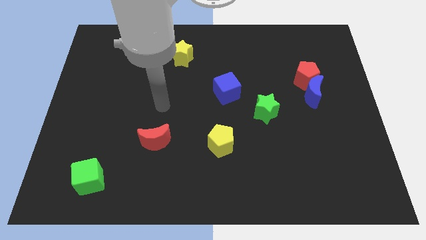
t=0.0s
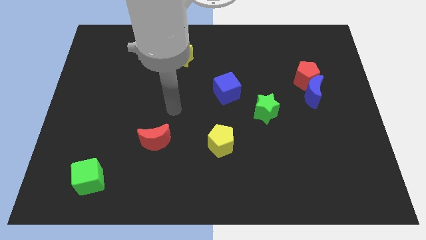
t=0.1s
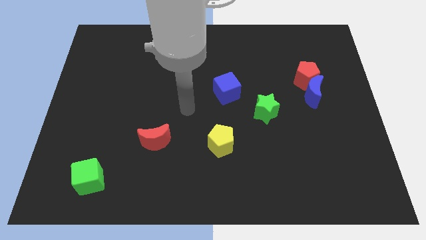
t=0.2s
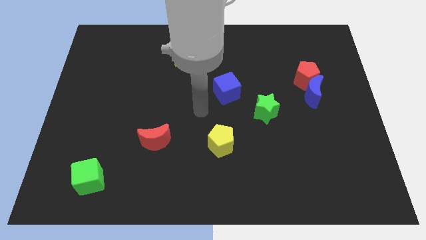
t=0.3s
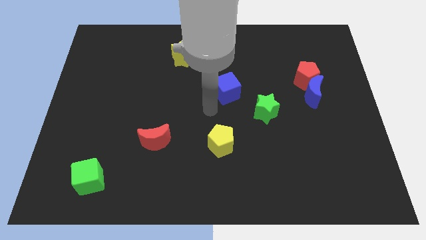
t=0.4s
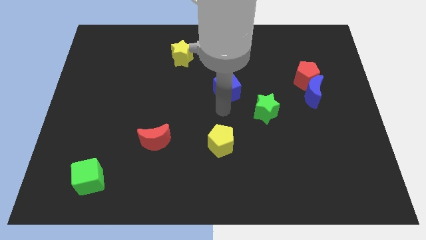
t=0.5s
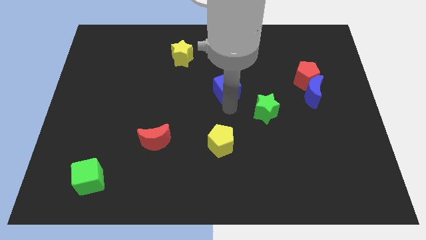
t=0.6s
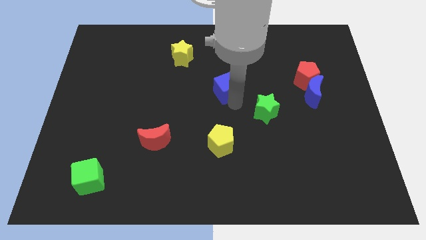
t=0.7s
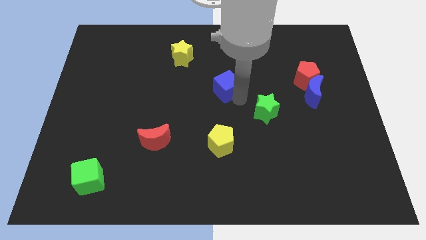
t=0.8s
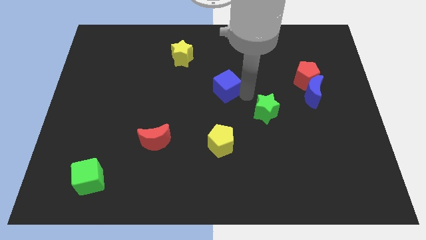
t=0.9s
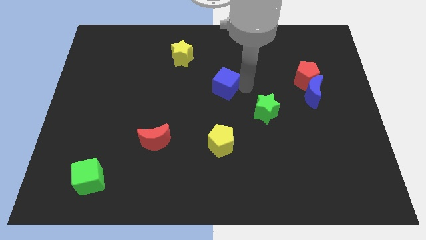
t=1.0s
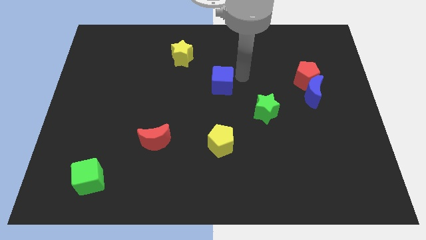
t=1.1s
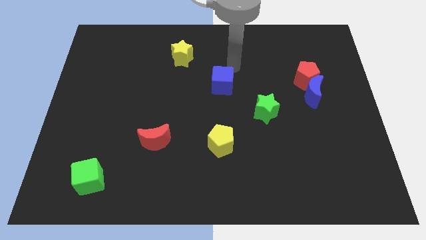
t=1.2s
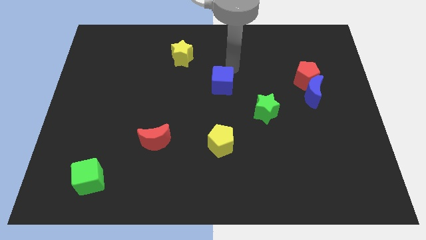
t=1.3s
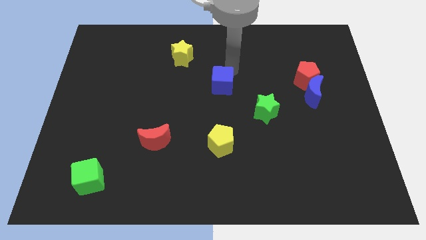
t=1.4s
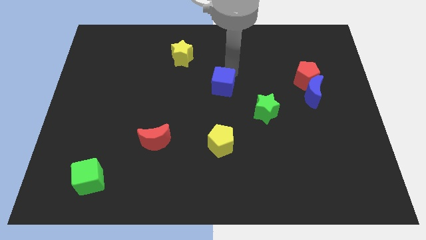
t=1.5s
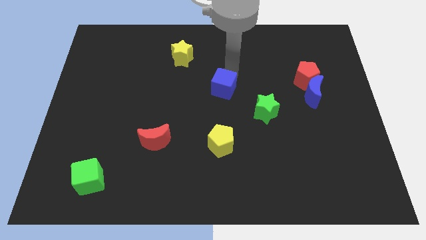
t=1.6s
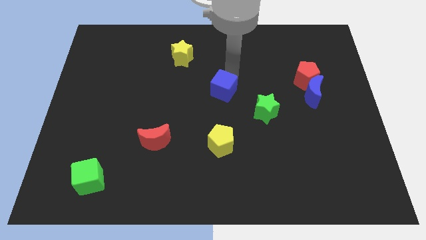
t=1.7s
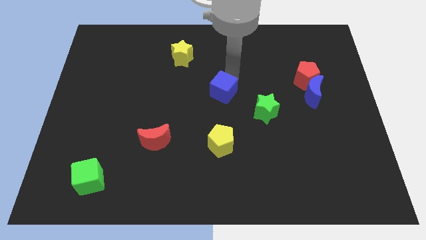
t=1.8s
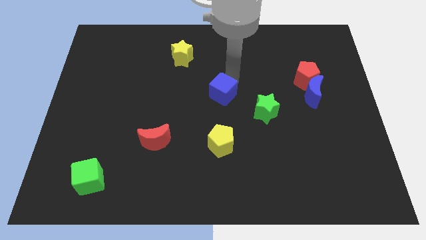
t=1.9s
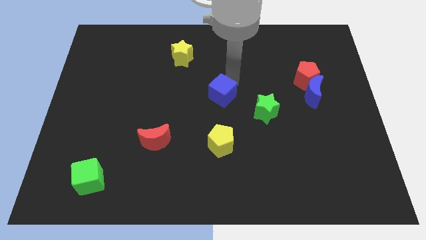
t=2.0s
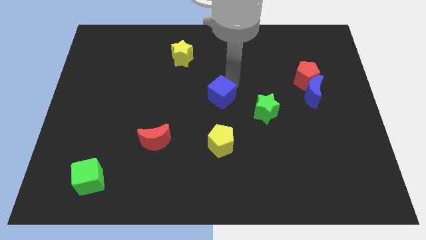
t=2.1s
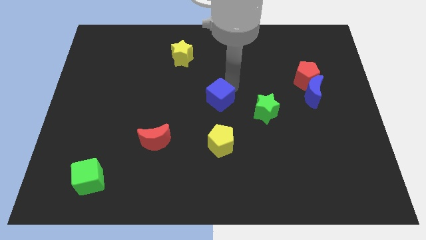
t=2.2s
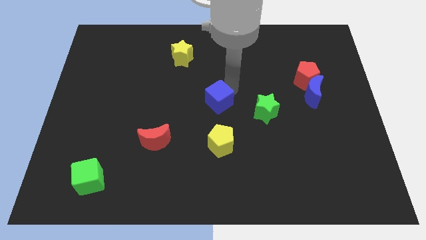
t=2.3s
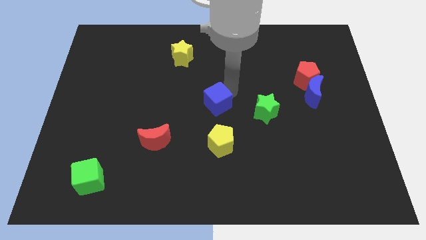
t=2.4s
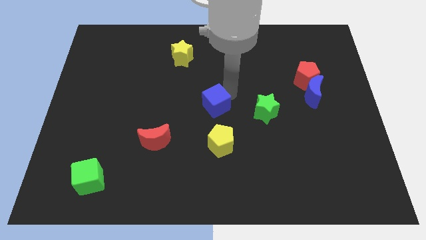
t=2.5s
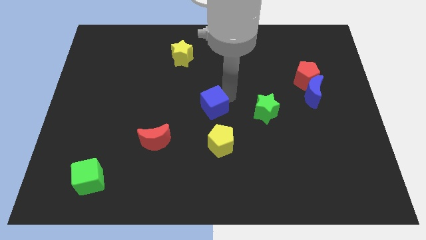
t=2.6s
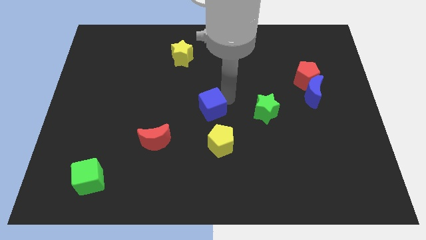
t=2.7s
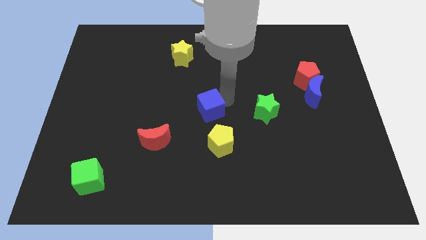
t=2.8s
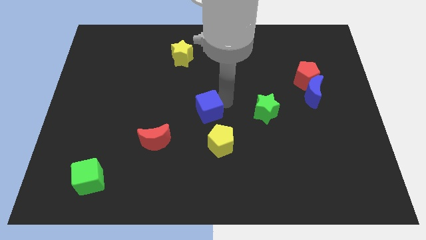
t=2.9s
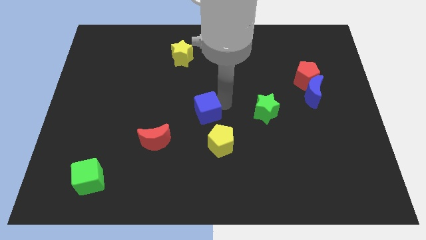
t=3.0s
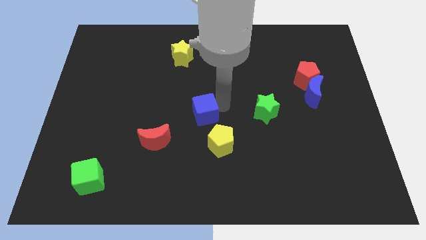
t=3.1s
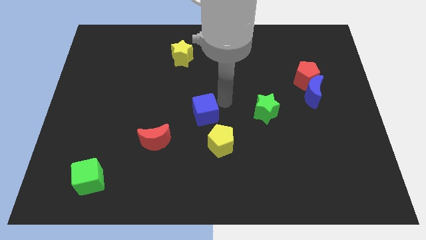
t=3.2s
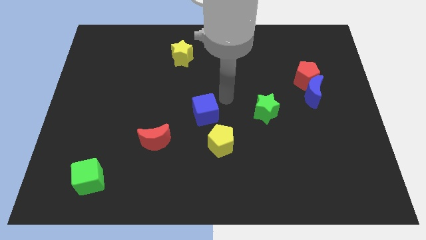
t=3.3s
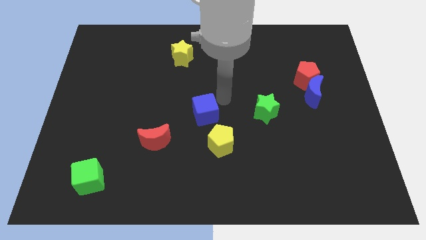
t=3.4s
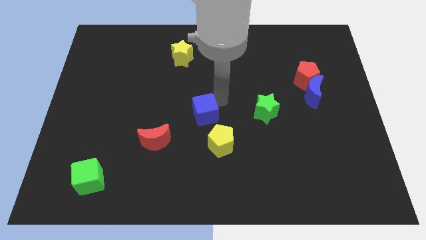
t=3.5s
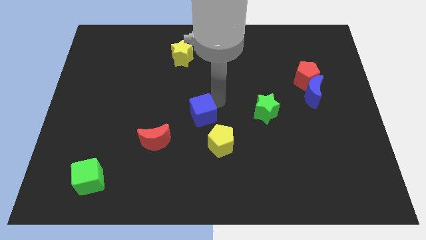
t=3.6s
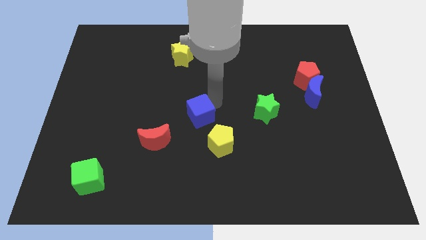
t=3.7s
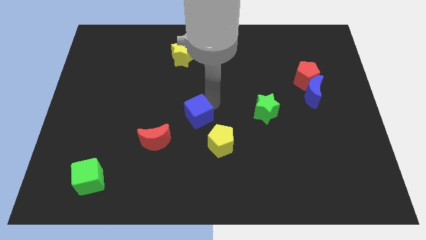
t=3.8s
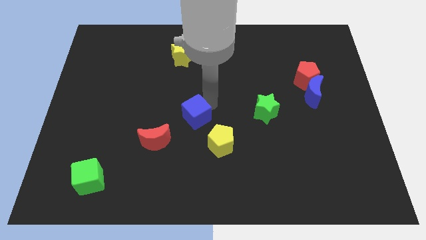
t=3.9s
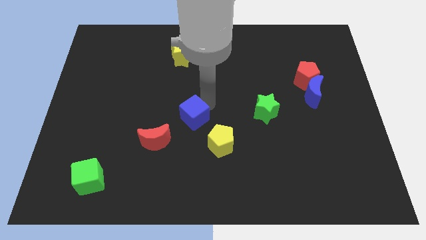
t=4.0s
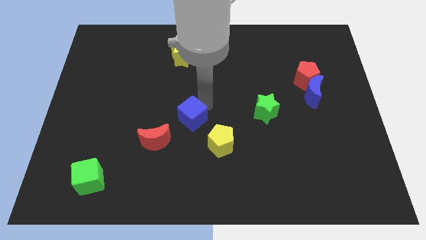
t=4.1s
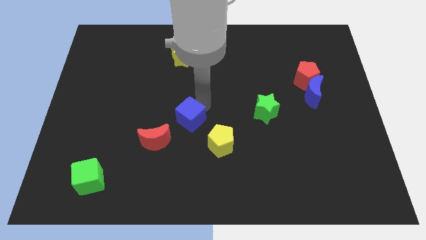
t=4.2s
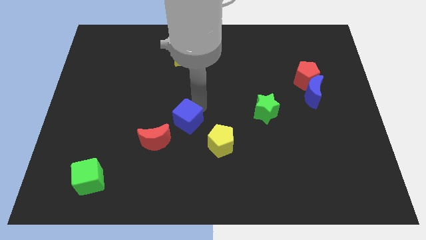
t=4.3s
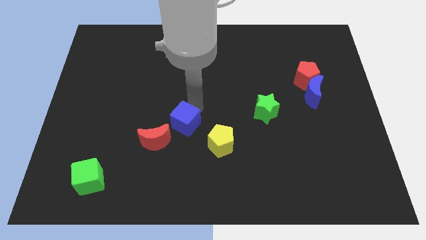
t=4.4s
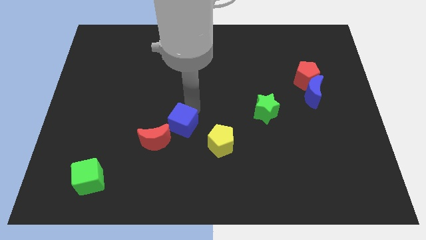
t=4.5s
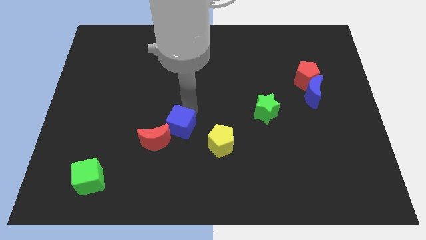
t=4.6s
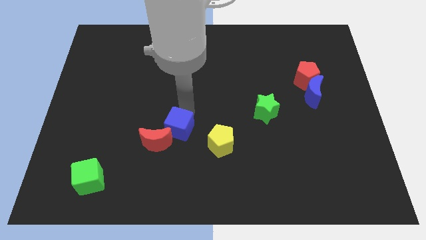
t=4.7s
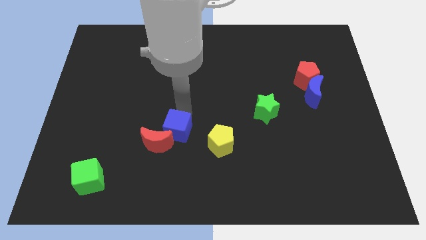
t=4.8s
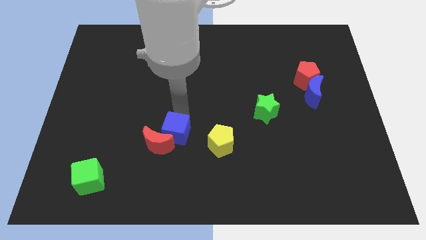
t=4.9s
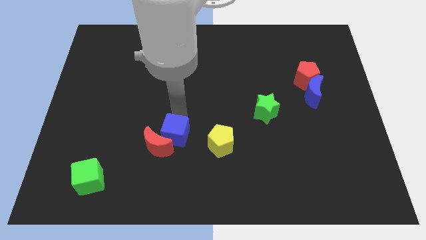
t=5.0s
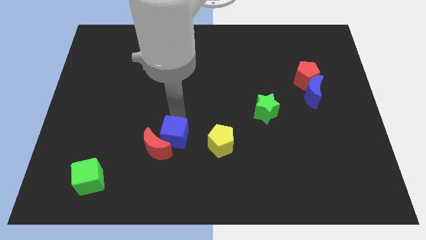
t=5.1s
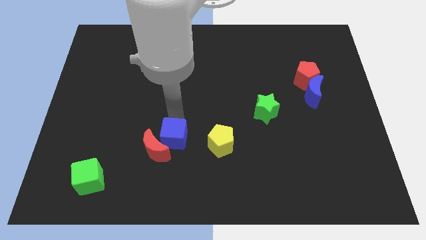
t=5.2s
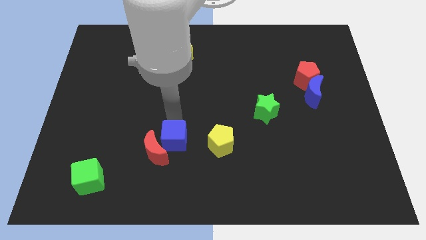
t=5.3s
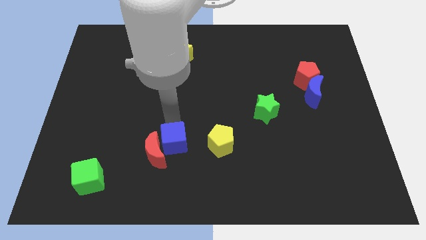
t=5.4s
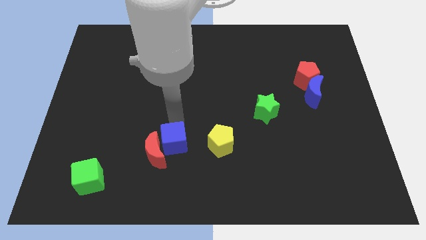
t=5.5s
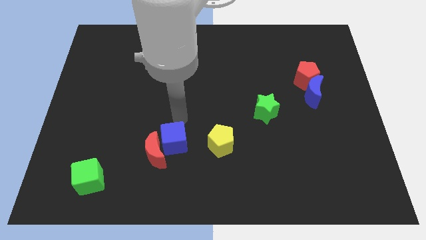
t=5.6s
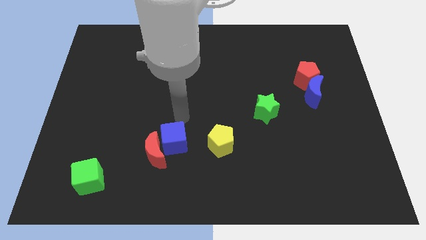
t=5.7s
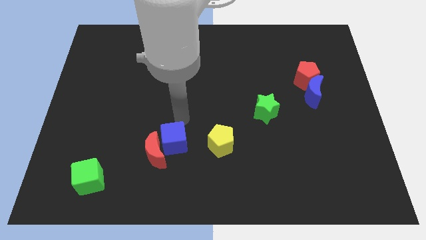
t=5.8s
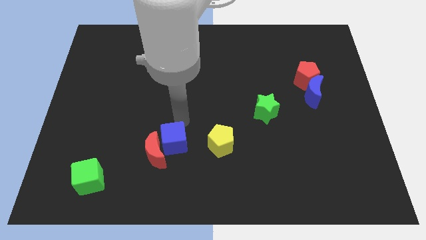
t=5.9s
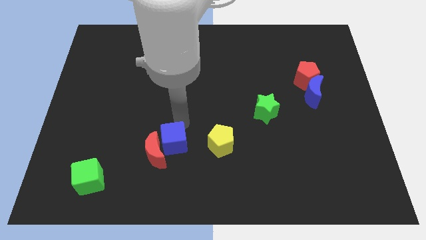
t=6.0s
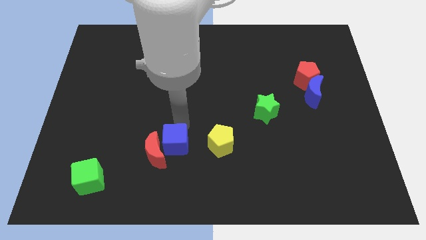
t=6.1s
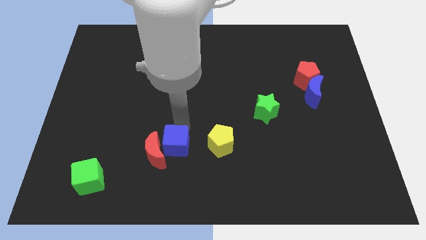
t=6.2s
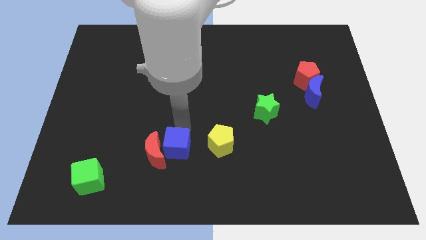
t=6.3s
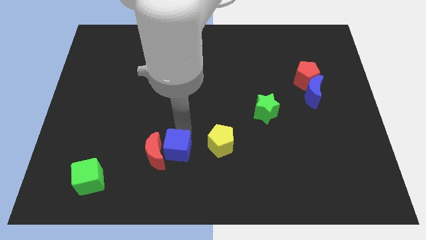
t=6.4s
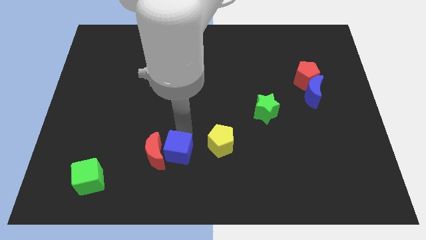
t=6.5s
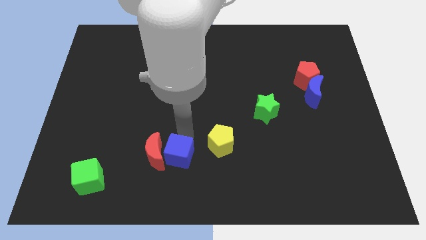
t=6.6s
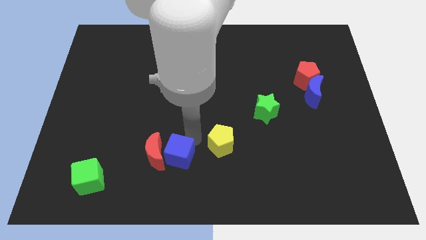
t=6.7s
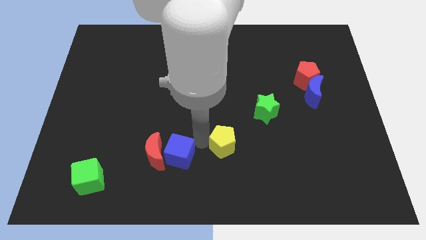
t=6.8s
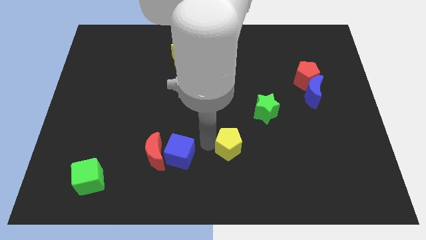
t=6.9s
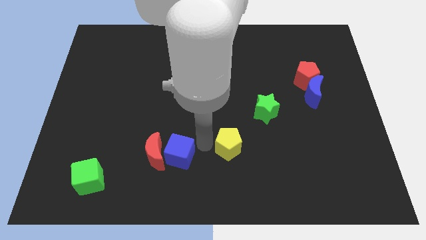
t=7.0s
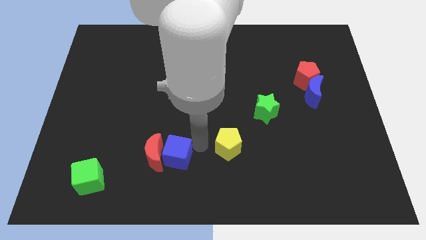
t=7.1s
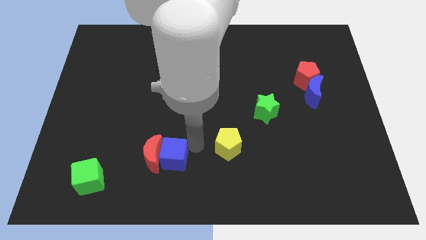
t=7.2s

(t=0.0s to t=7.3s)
move the blue cube down and to the left diagonally

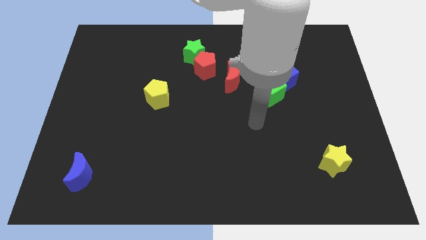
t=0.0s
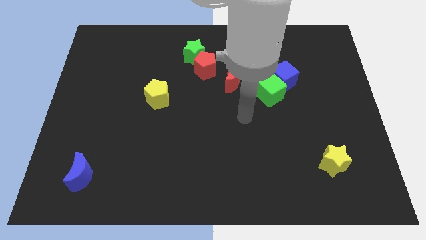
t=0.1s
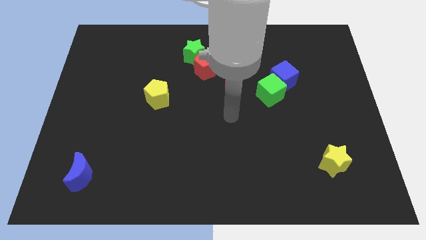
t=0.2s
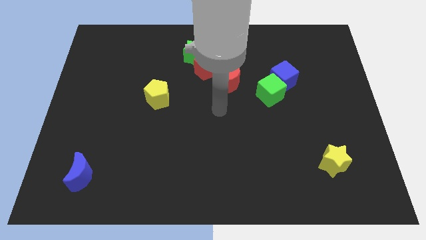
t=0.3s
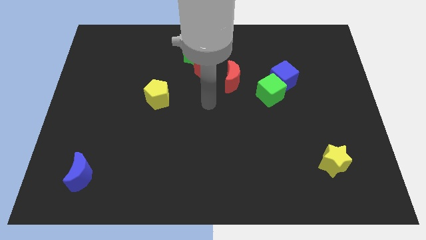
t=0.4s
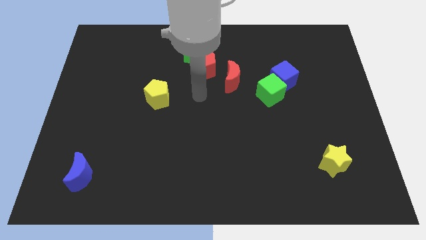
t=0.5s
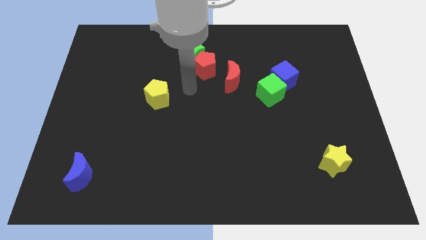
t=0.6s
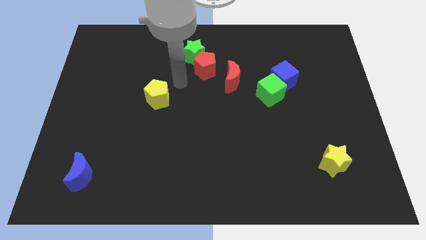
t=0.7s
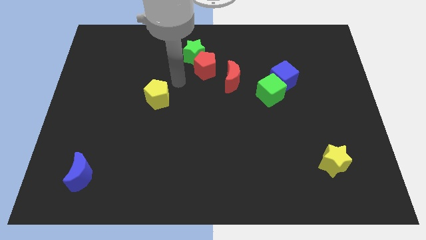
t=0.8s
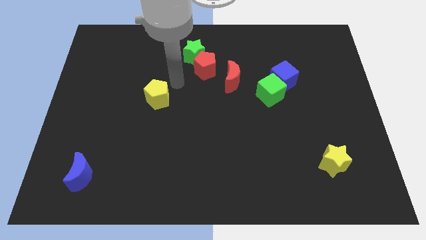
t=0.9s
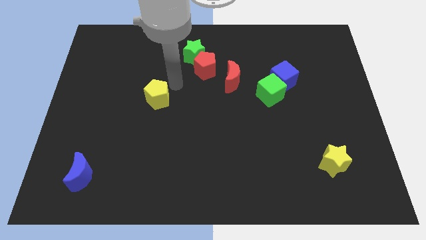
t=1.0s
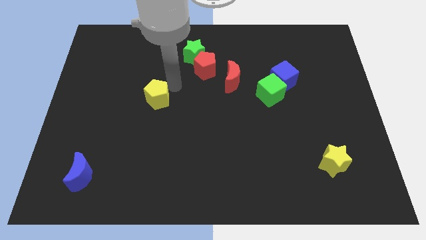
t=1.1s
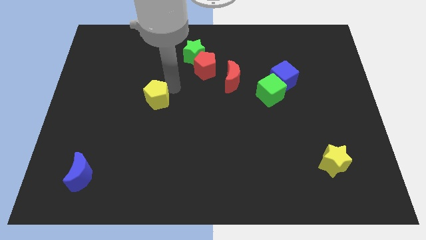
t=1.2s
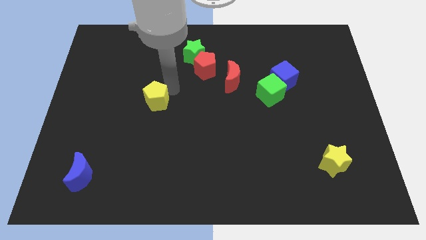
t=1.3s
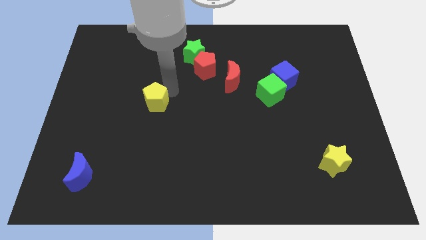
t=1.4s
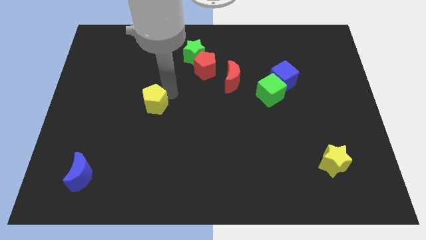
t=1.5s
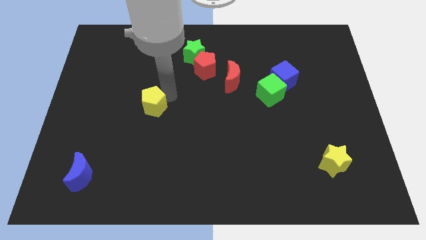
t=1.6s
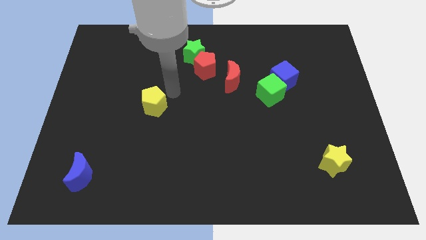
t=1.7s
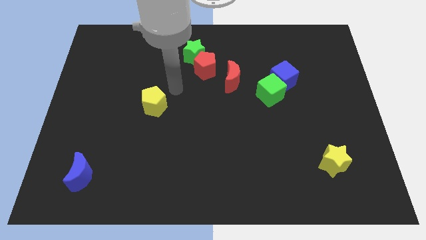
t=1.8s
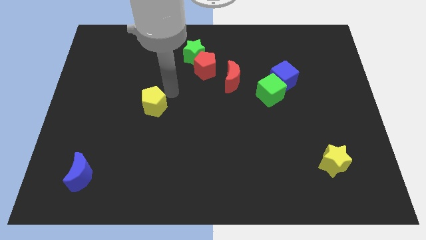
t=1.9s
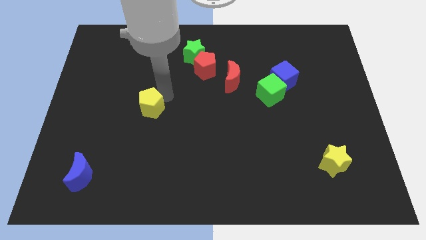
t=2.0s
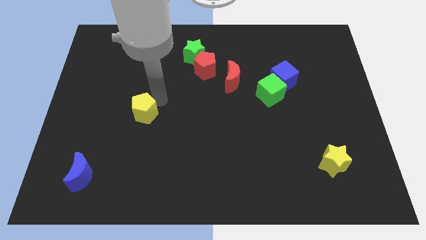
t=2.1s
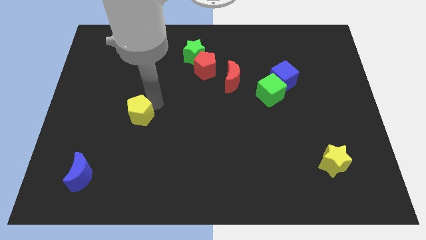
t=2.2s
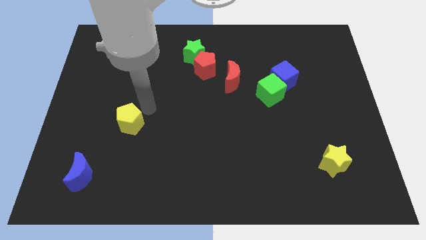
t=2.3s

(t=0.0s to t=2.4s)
slide the yellow pentagon down and left diagonally slightly
